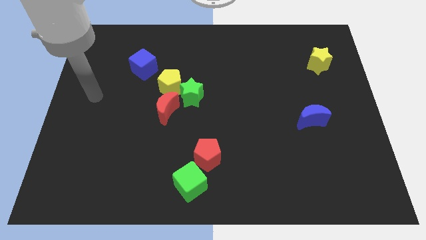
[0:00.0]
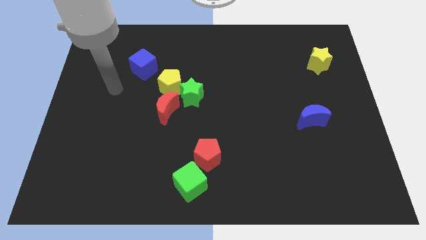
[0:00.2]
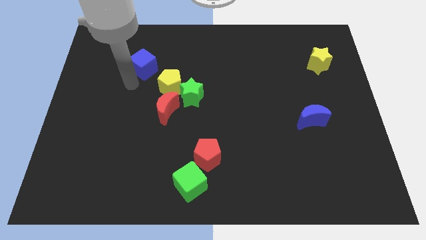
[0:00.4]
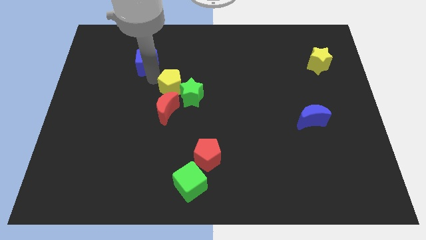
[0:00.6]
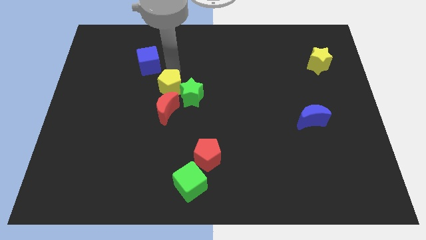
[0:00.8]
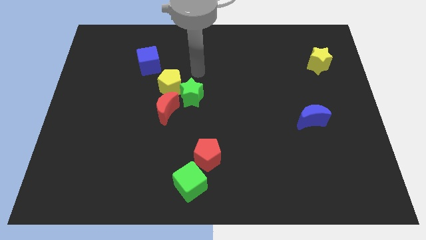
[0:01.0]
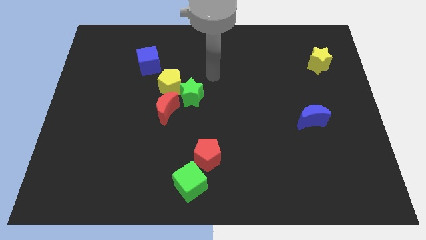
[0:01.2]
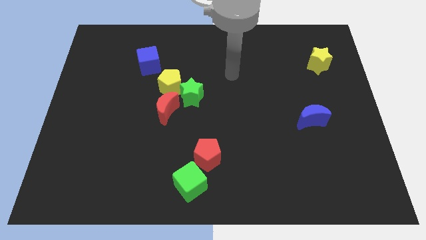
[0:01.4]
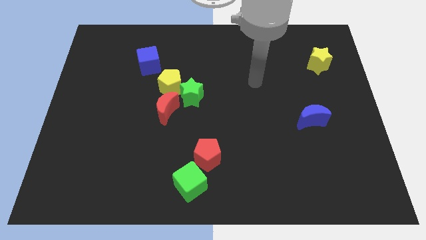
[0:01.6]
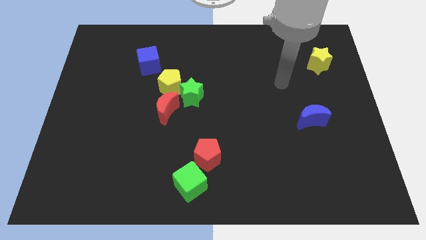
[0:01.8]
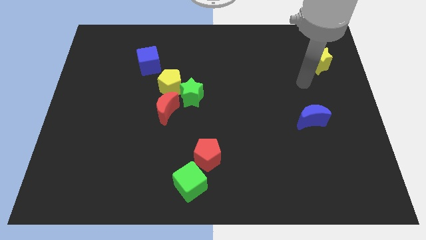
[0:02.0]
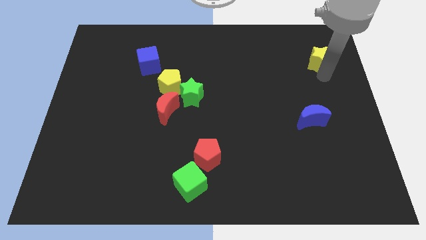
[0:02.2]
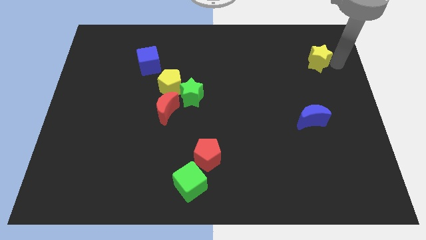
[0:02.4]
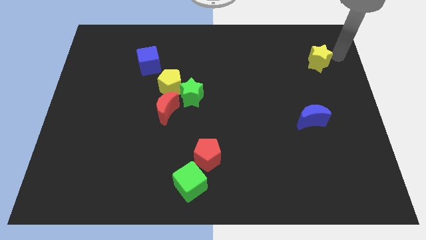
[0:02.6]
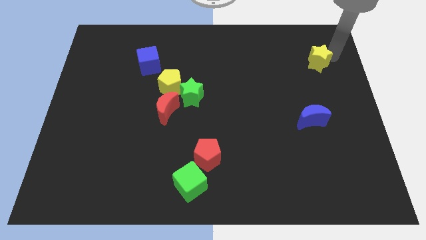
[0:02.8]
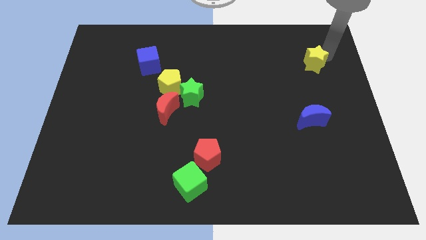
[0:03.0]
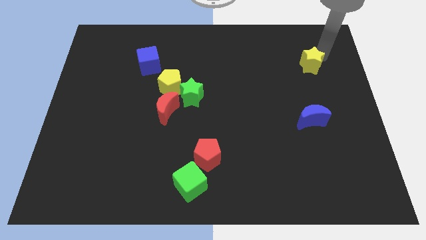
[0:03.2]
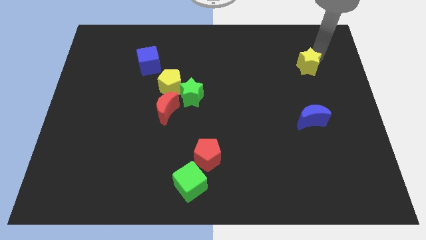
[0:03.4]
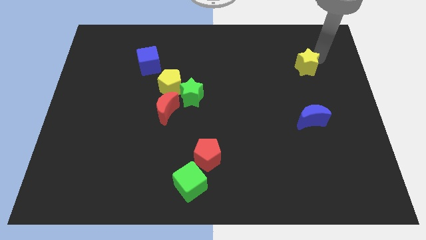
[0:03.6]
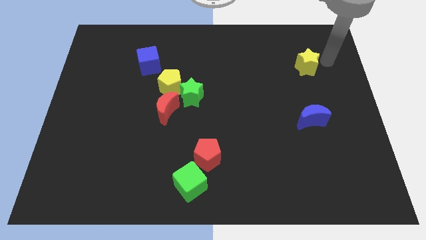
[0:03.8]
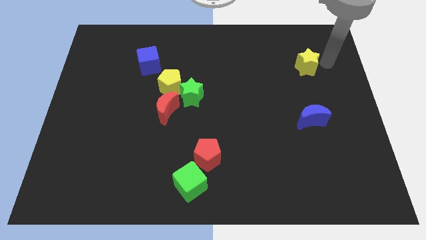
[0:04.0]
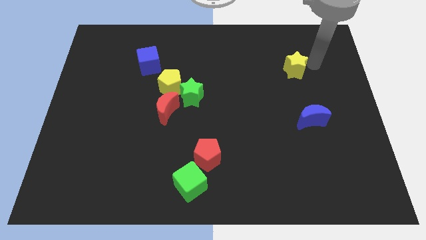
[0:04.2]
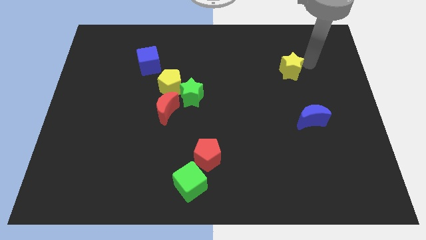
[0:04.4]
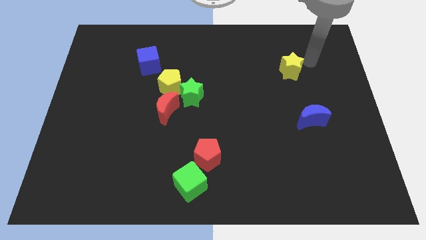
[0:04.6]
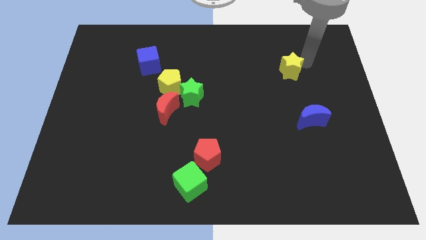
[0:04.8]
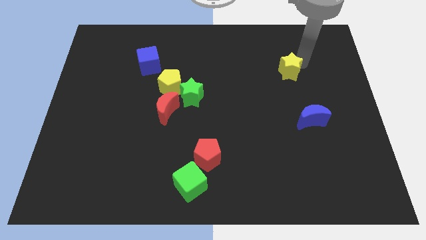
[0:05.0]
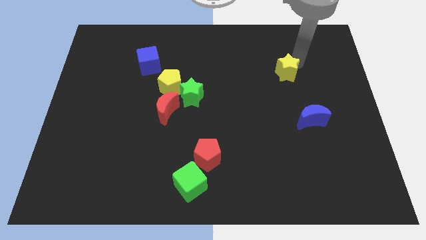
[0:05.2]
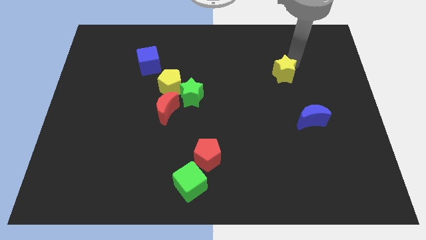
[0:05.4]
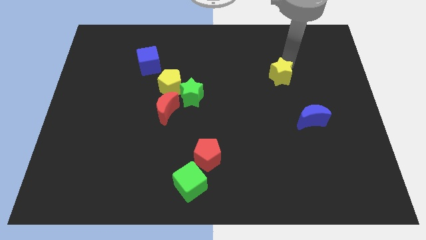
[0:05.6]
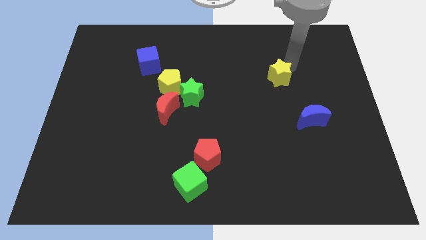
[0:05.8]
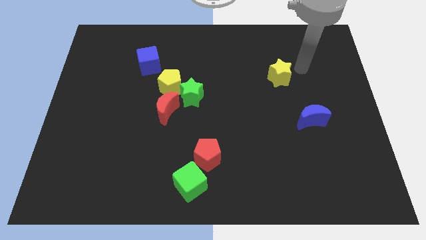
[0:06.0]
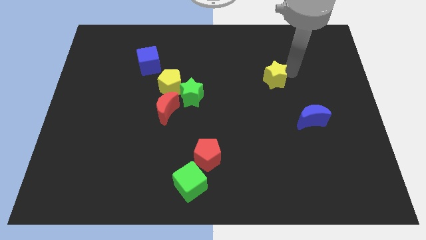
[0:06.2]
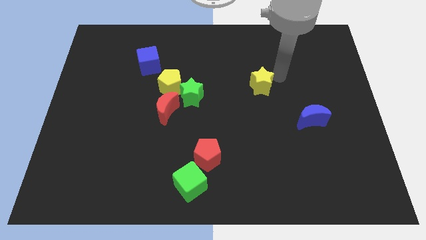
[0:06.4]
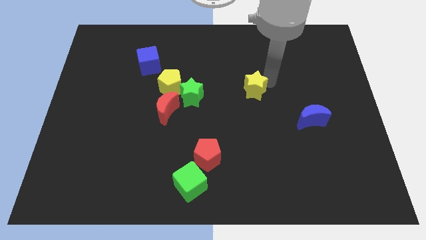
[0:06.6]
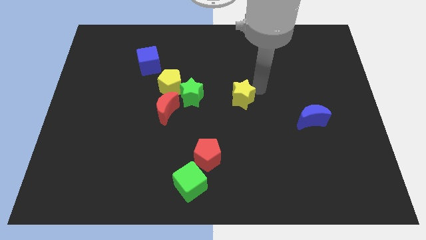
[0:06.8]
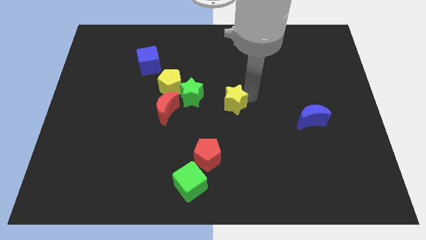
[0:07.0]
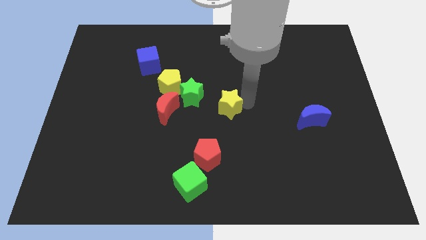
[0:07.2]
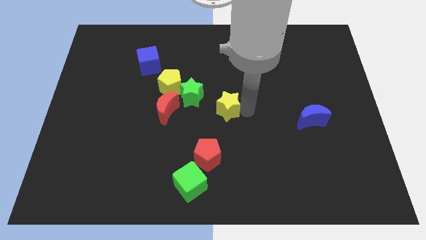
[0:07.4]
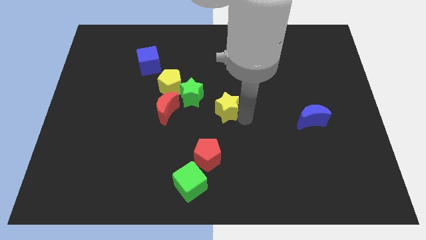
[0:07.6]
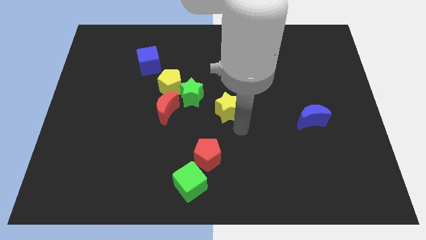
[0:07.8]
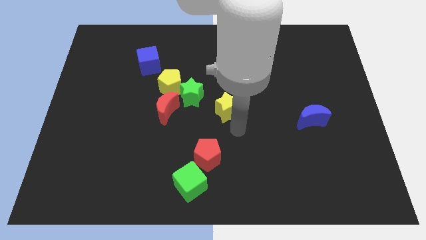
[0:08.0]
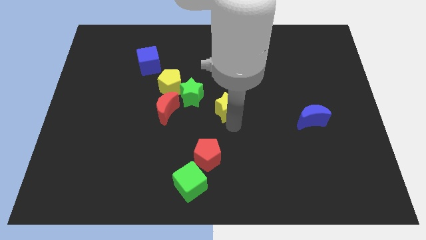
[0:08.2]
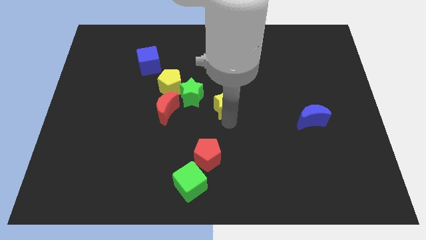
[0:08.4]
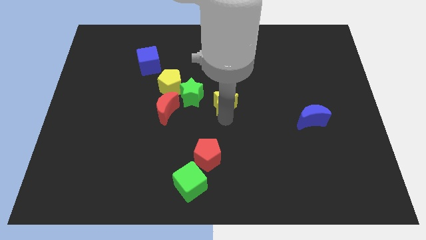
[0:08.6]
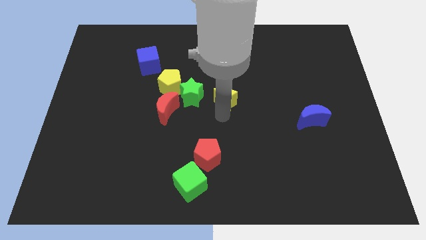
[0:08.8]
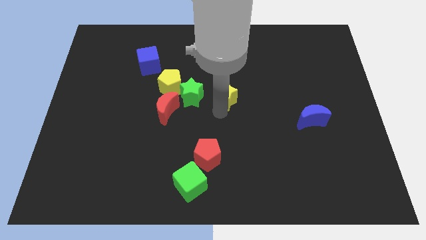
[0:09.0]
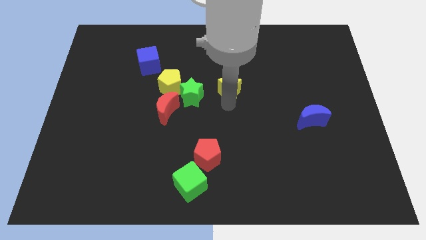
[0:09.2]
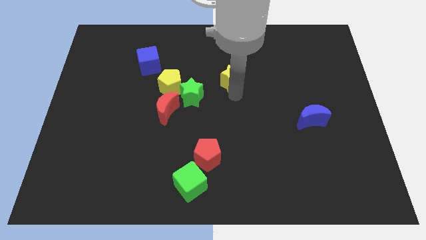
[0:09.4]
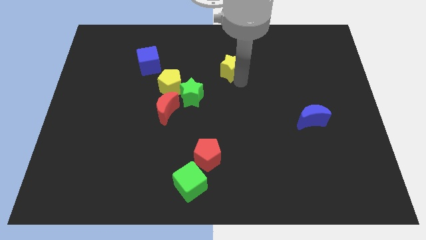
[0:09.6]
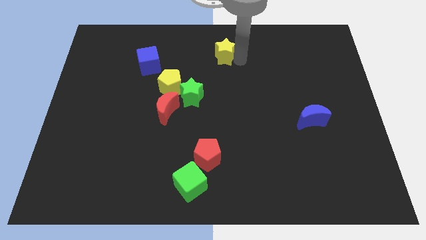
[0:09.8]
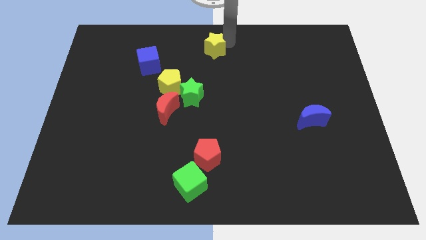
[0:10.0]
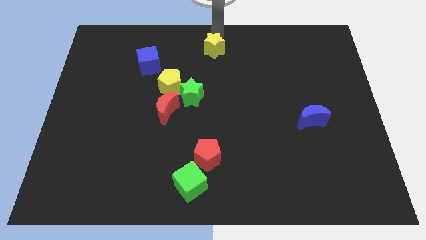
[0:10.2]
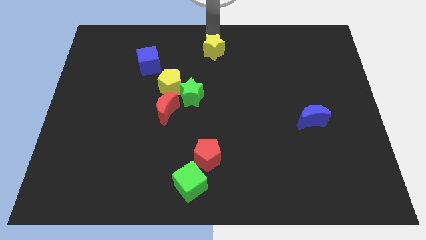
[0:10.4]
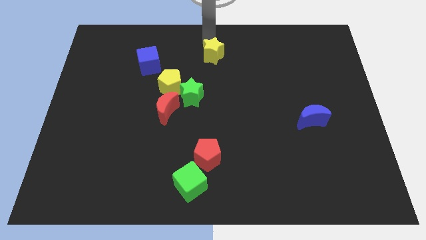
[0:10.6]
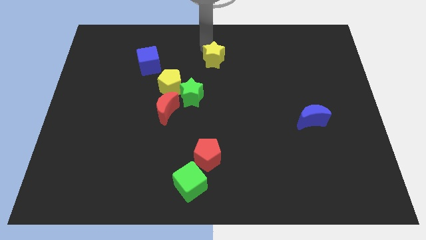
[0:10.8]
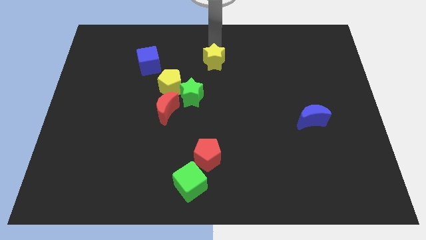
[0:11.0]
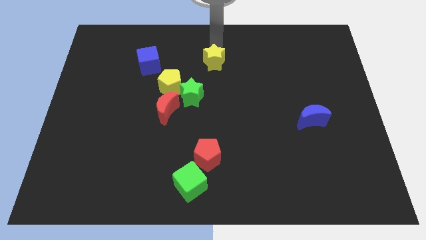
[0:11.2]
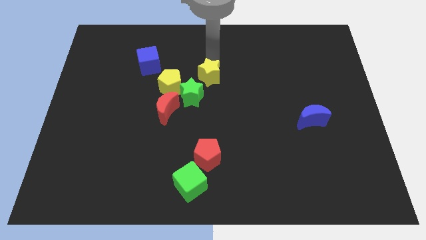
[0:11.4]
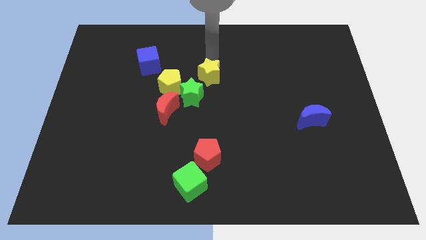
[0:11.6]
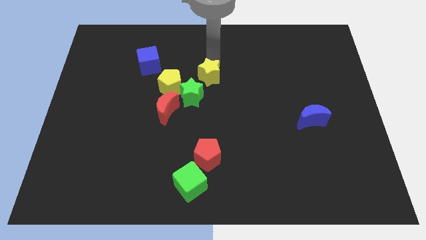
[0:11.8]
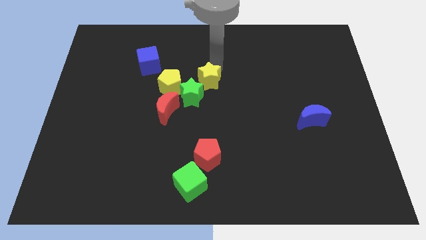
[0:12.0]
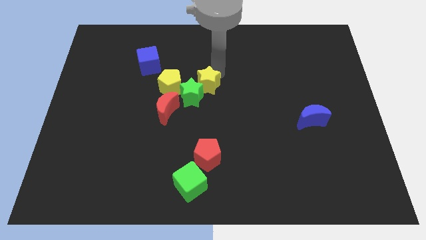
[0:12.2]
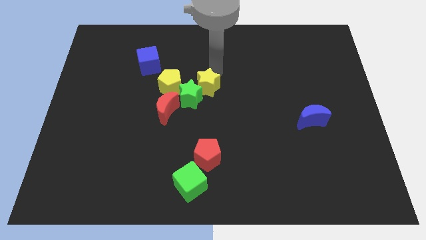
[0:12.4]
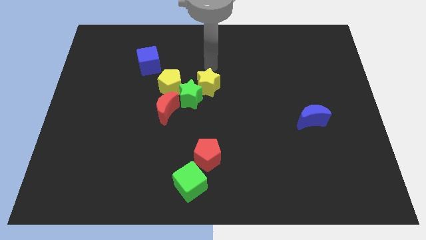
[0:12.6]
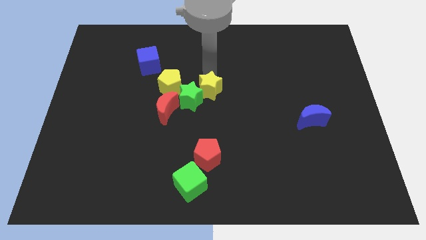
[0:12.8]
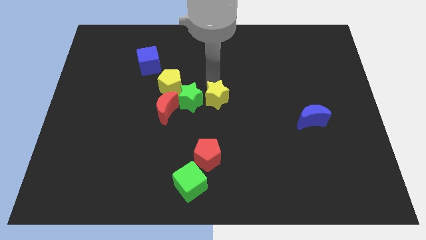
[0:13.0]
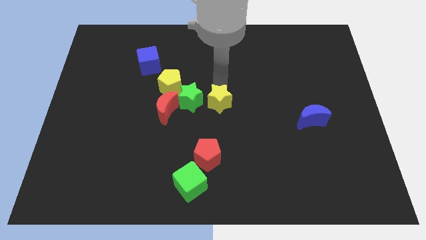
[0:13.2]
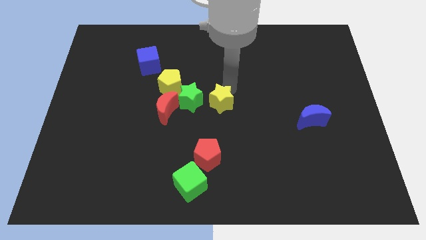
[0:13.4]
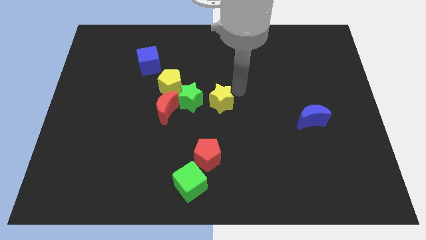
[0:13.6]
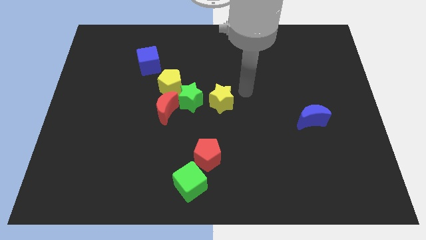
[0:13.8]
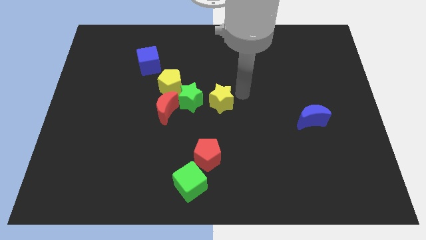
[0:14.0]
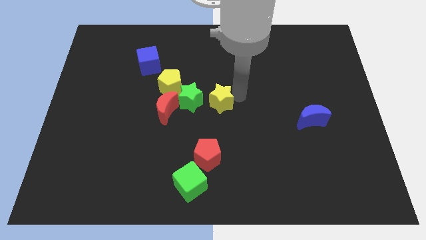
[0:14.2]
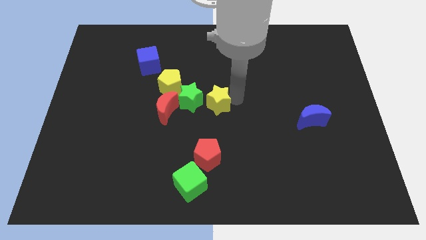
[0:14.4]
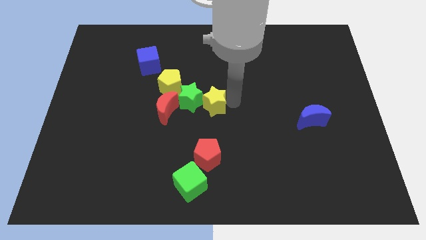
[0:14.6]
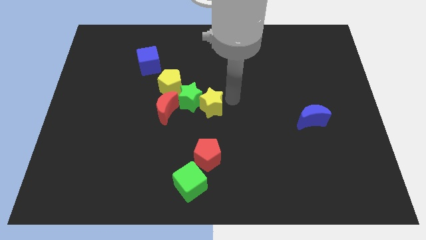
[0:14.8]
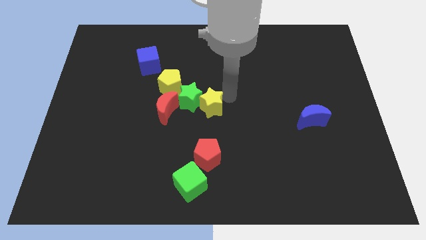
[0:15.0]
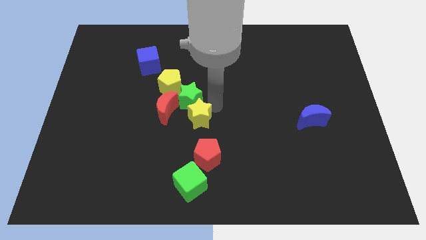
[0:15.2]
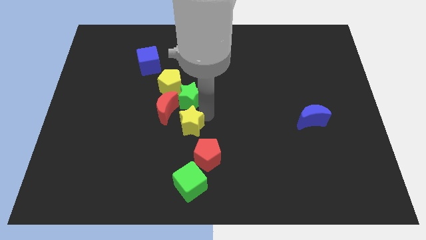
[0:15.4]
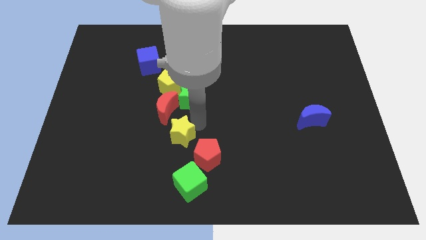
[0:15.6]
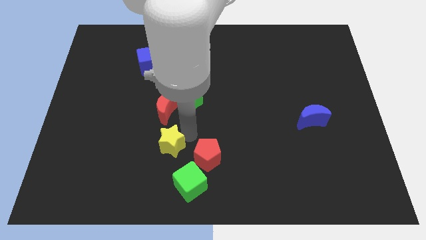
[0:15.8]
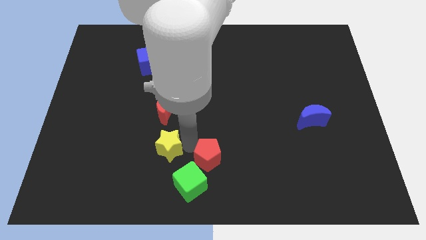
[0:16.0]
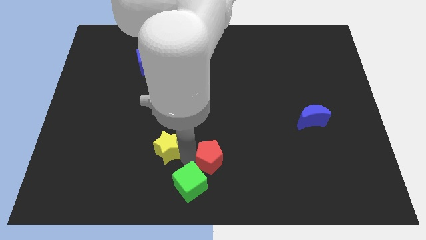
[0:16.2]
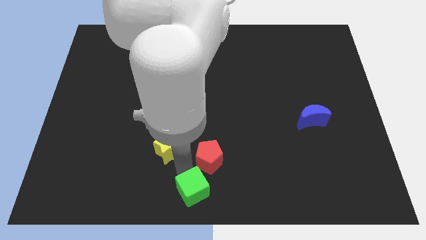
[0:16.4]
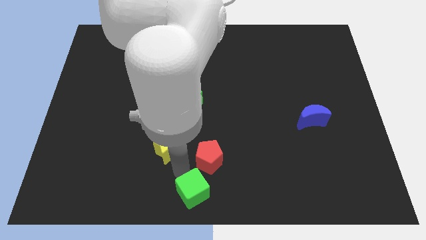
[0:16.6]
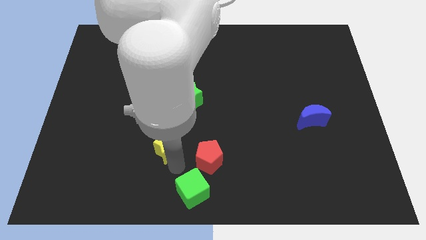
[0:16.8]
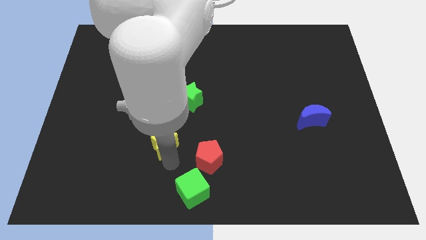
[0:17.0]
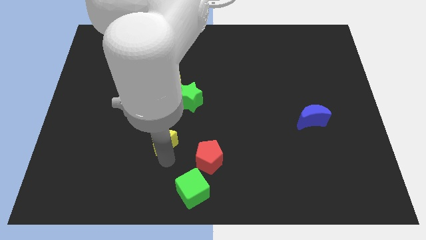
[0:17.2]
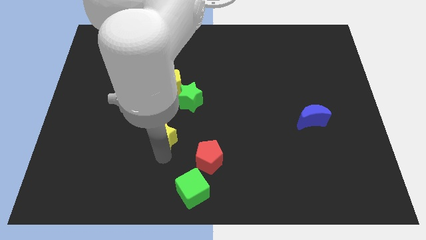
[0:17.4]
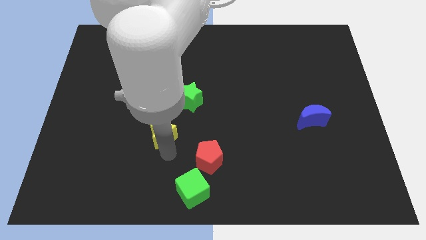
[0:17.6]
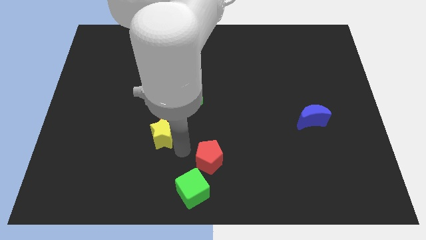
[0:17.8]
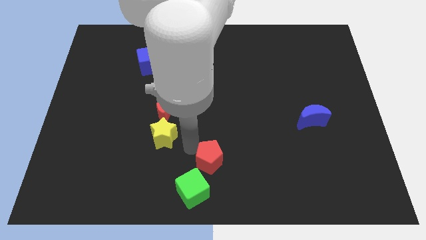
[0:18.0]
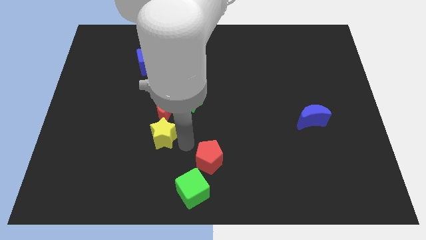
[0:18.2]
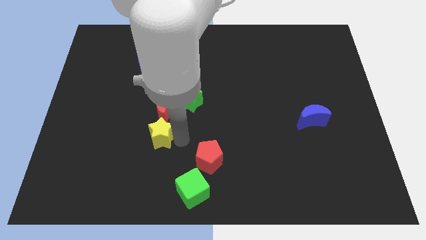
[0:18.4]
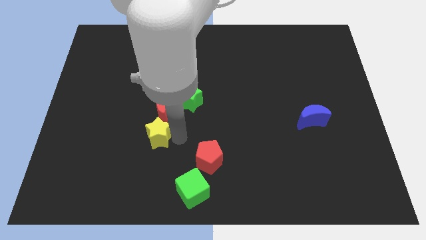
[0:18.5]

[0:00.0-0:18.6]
push the yellow star to the bottom left side of the red moon
